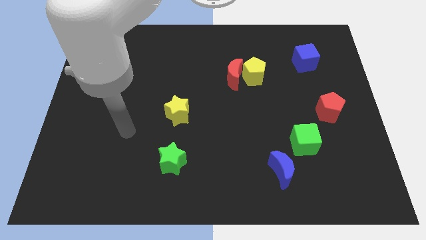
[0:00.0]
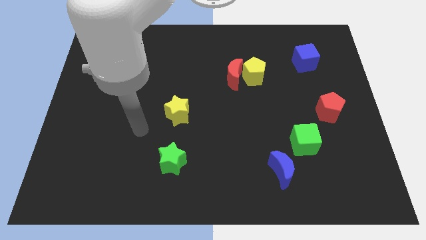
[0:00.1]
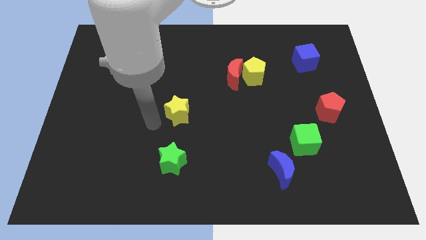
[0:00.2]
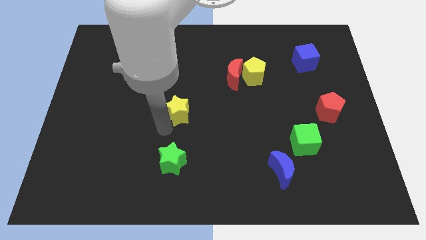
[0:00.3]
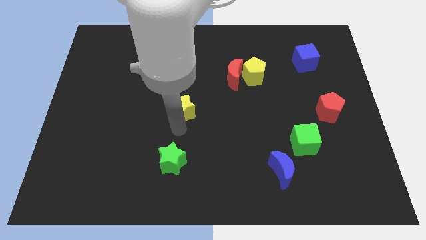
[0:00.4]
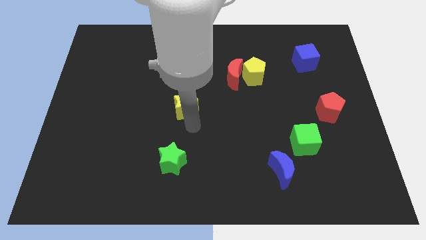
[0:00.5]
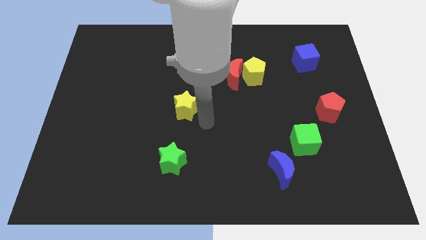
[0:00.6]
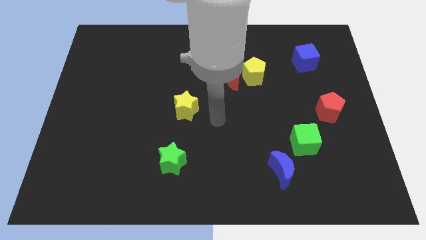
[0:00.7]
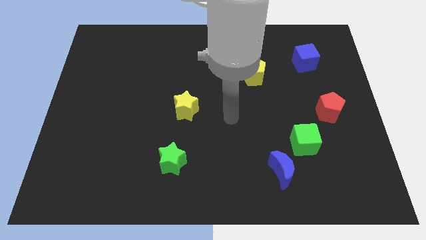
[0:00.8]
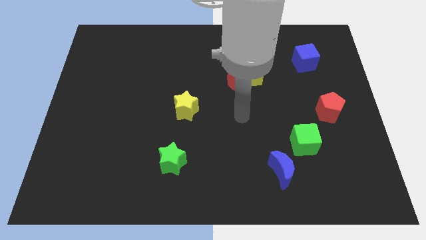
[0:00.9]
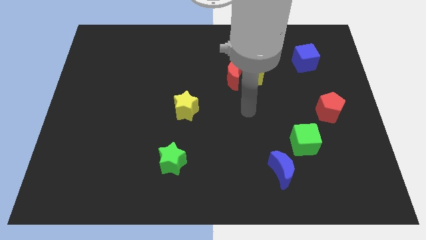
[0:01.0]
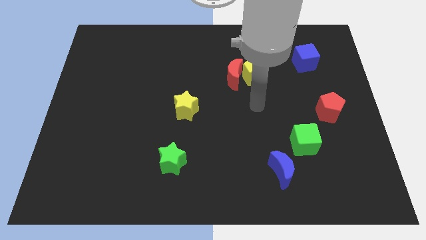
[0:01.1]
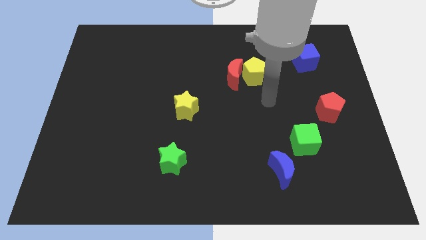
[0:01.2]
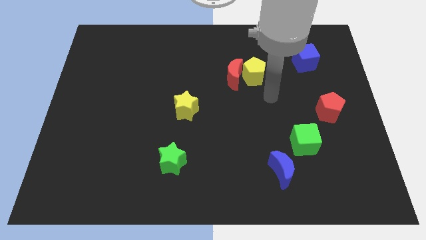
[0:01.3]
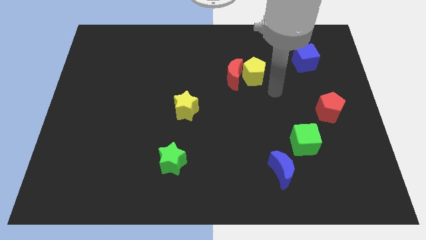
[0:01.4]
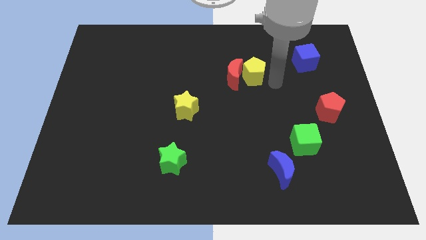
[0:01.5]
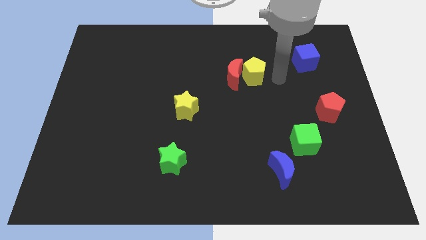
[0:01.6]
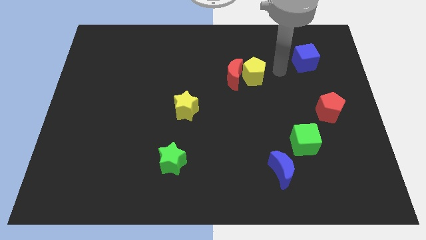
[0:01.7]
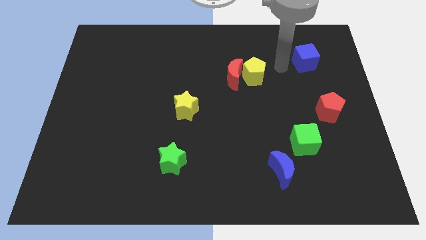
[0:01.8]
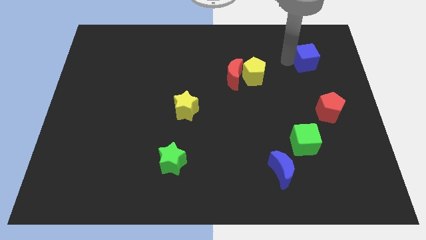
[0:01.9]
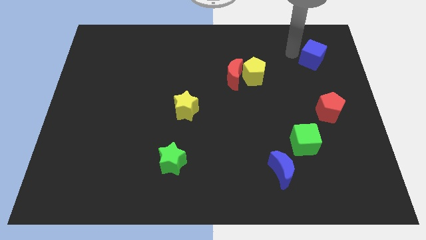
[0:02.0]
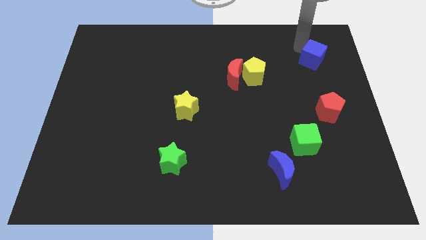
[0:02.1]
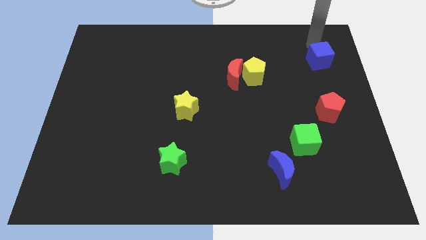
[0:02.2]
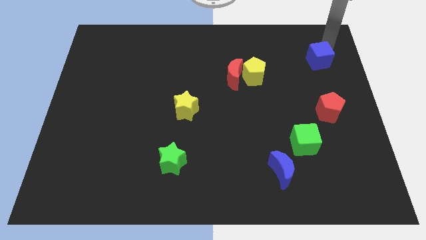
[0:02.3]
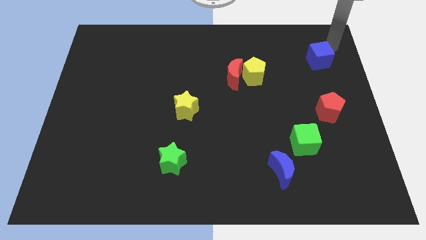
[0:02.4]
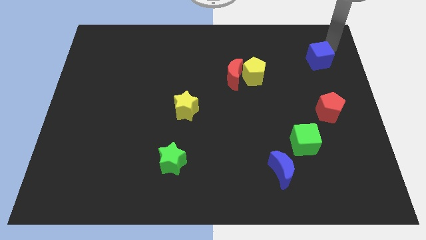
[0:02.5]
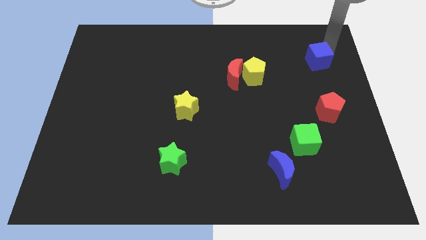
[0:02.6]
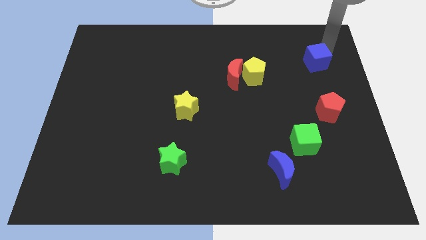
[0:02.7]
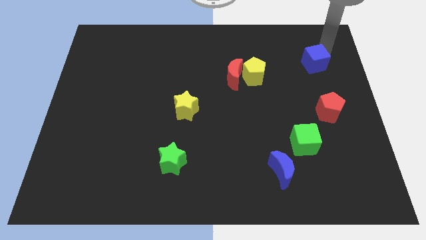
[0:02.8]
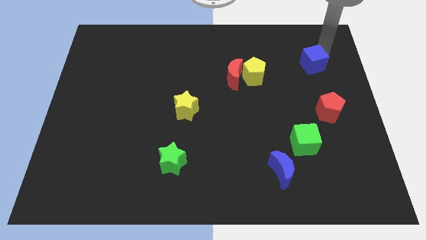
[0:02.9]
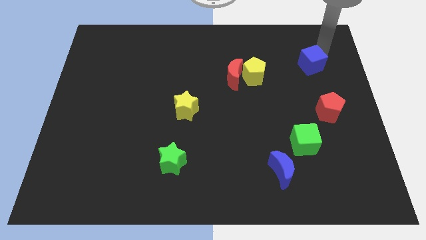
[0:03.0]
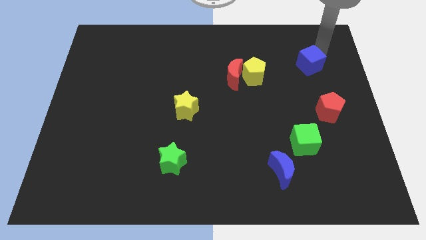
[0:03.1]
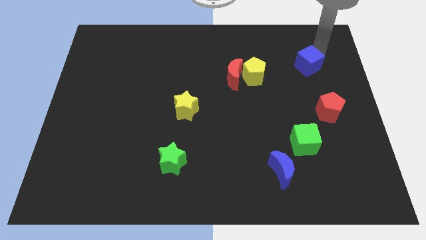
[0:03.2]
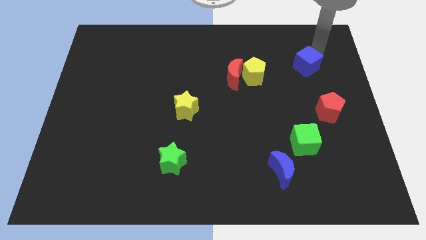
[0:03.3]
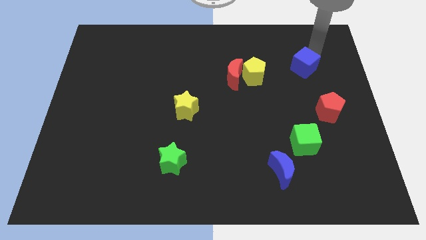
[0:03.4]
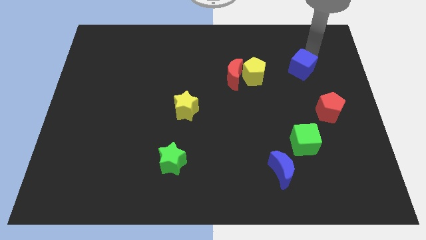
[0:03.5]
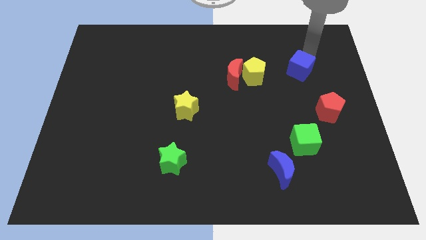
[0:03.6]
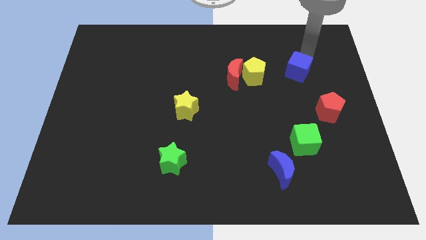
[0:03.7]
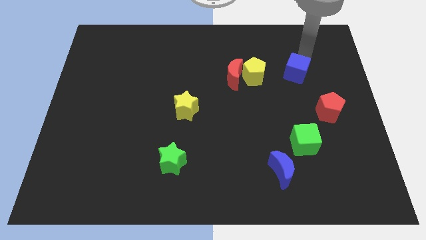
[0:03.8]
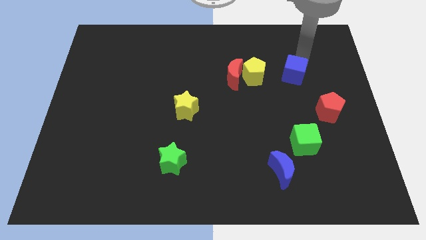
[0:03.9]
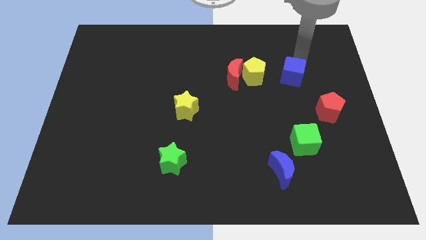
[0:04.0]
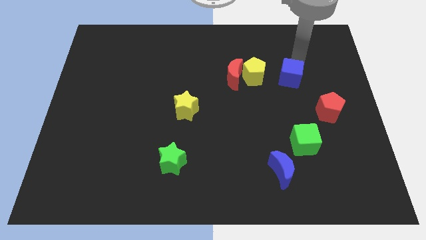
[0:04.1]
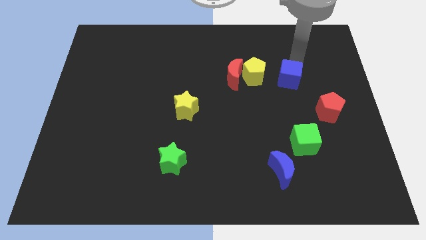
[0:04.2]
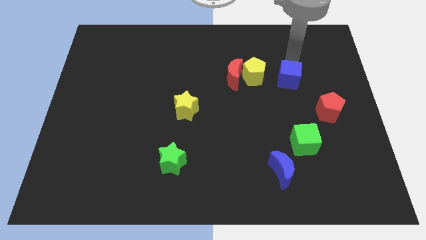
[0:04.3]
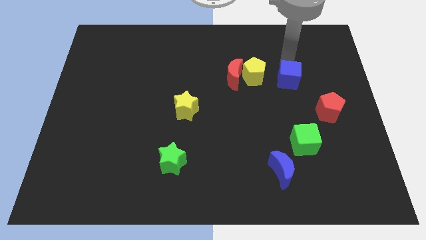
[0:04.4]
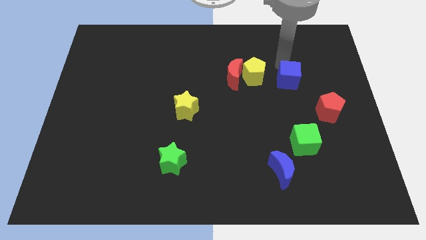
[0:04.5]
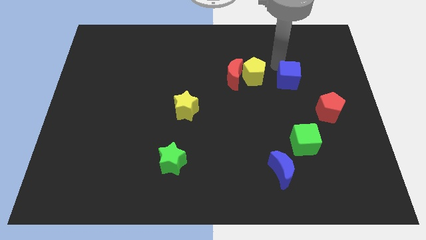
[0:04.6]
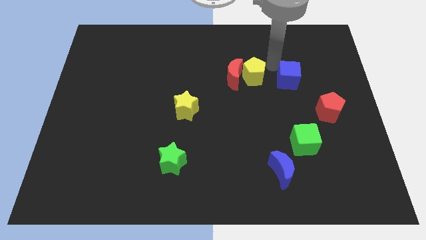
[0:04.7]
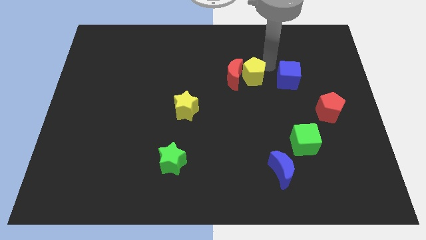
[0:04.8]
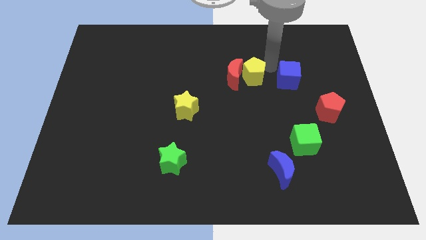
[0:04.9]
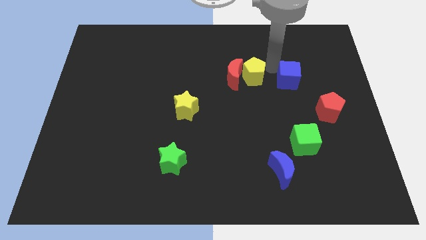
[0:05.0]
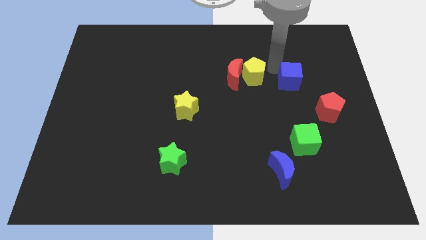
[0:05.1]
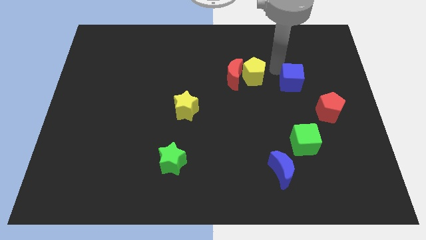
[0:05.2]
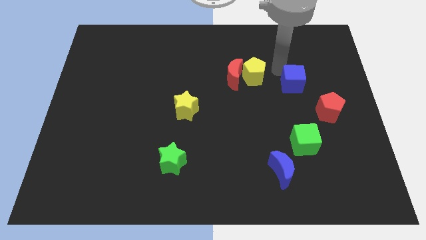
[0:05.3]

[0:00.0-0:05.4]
move the blue cube downwards a little bit

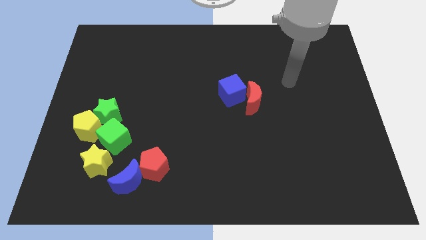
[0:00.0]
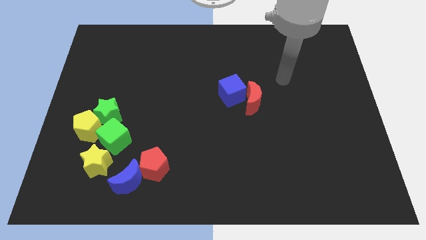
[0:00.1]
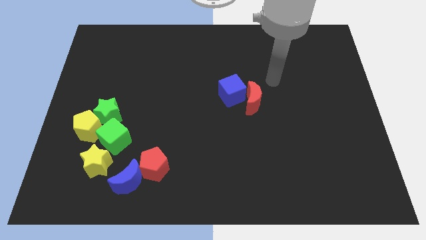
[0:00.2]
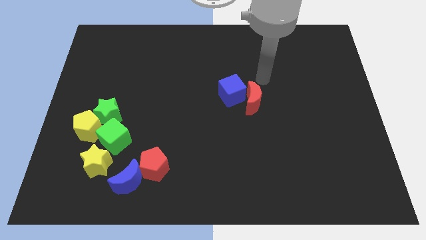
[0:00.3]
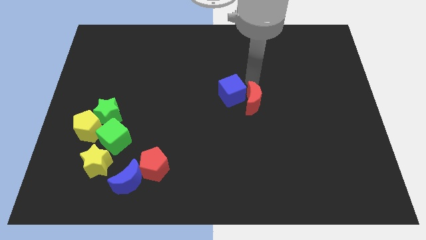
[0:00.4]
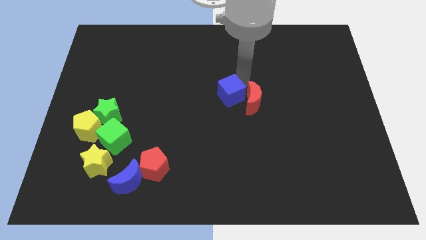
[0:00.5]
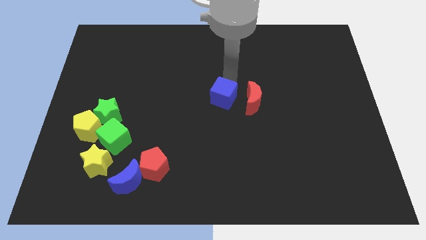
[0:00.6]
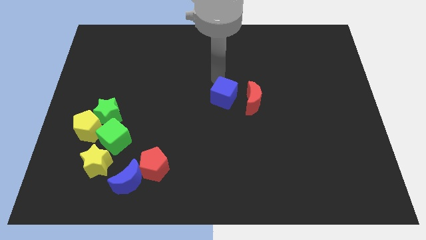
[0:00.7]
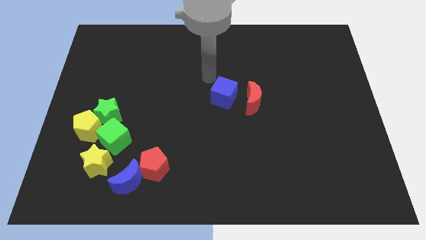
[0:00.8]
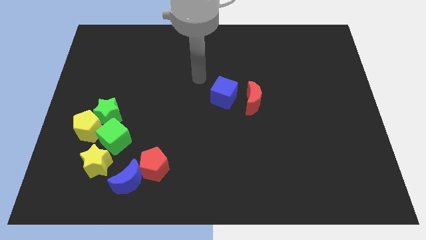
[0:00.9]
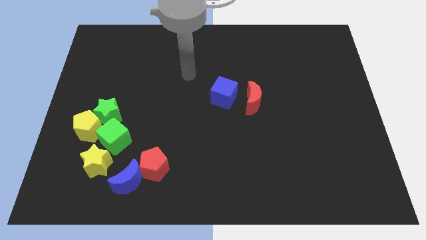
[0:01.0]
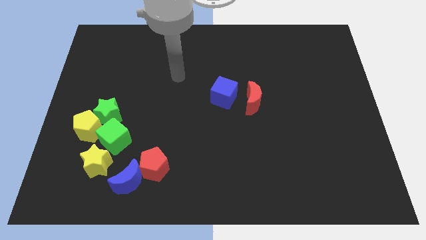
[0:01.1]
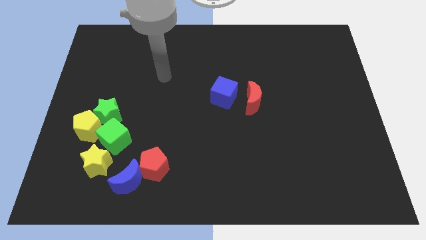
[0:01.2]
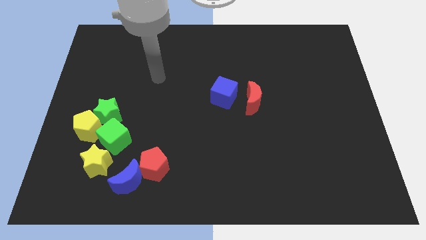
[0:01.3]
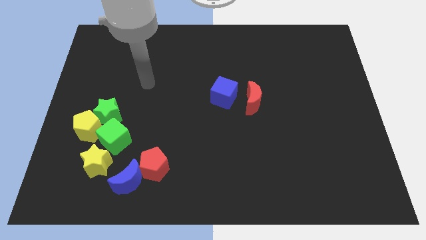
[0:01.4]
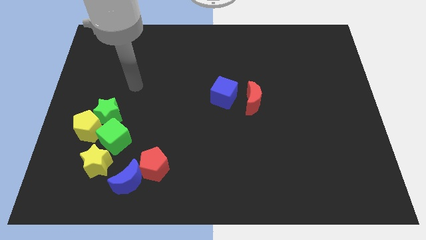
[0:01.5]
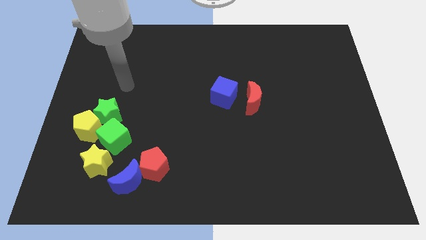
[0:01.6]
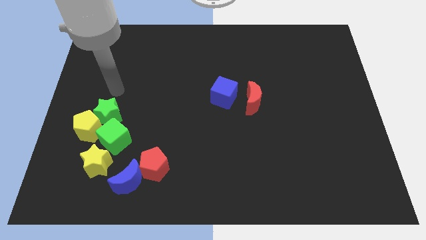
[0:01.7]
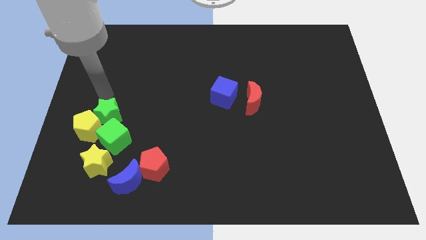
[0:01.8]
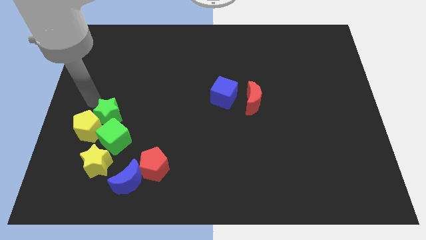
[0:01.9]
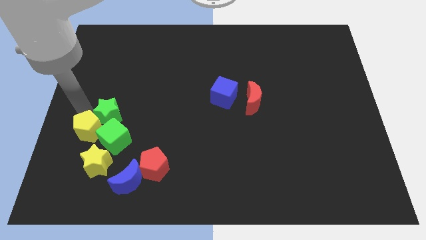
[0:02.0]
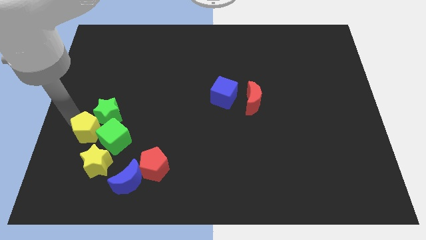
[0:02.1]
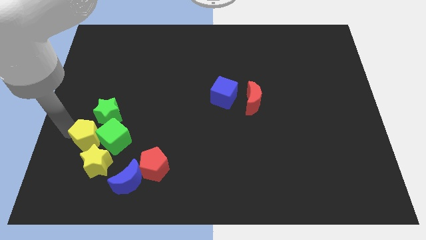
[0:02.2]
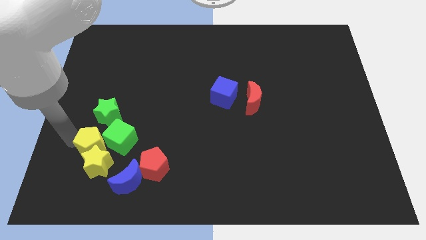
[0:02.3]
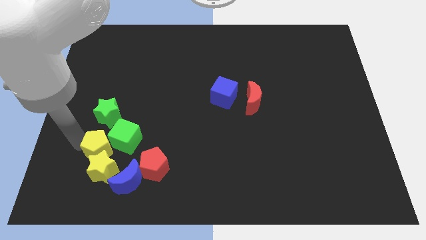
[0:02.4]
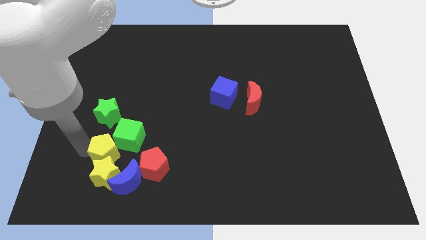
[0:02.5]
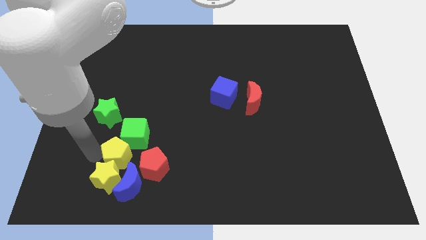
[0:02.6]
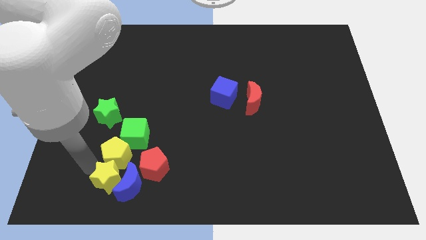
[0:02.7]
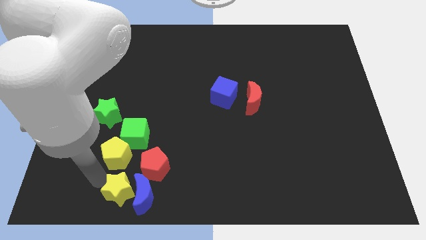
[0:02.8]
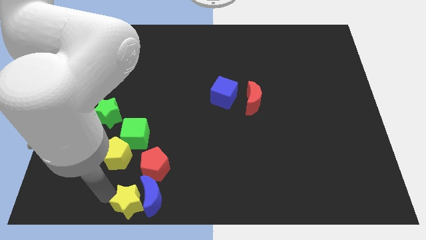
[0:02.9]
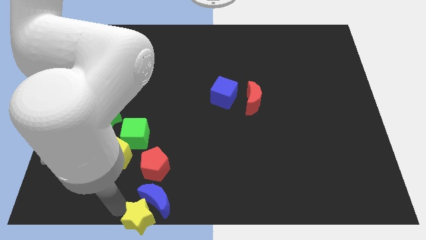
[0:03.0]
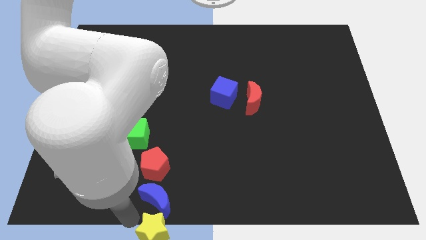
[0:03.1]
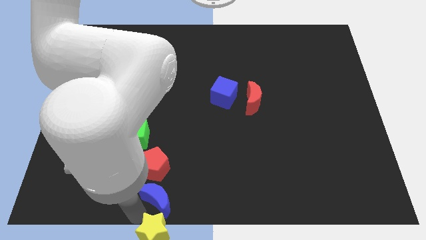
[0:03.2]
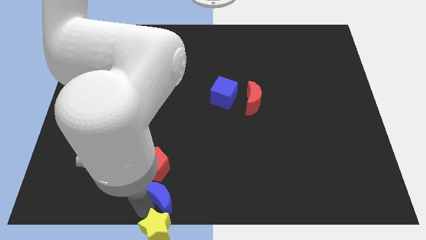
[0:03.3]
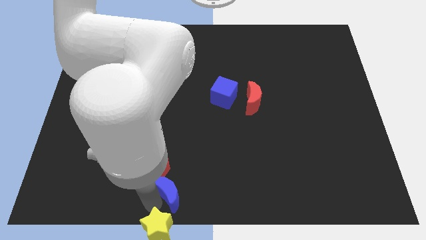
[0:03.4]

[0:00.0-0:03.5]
slightly move the blue moon right
